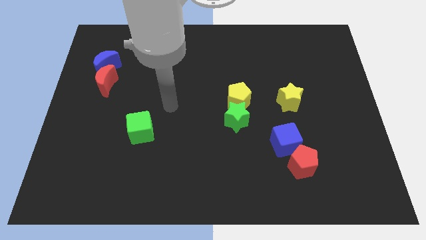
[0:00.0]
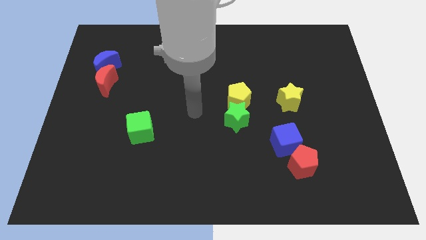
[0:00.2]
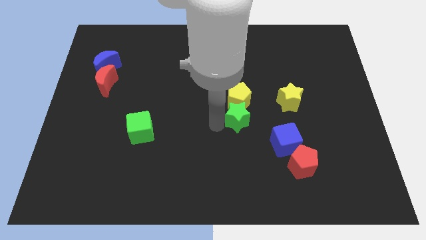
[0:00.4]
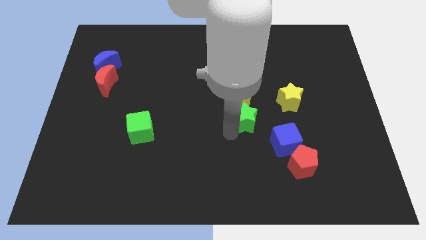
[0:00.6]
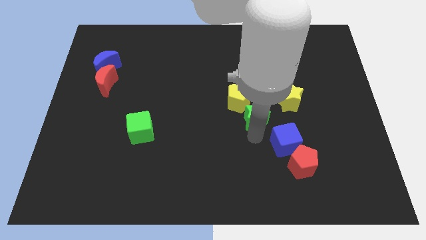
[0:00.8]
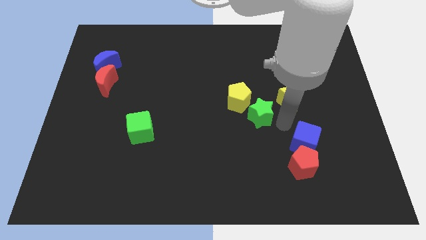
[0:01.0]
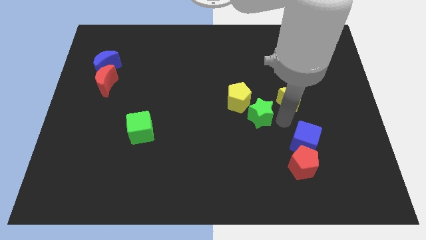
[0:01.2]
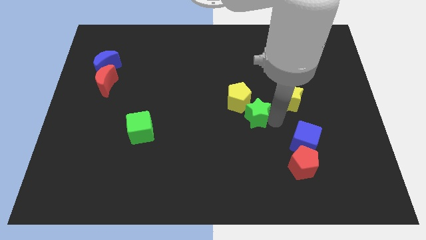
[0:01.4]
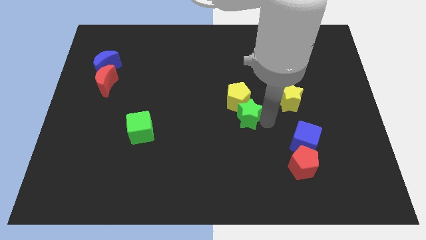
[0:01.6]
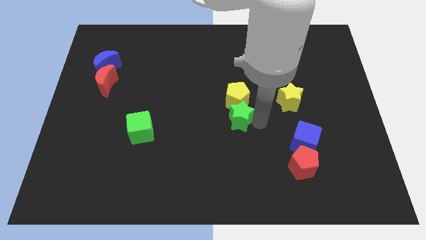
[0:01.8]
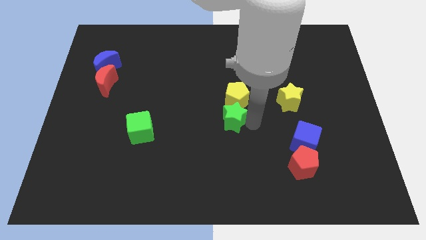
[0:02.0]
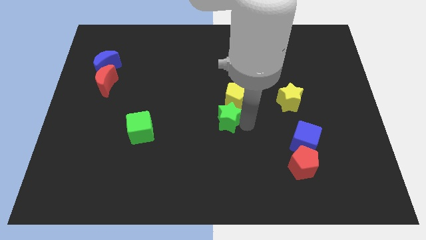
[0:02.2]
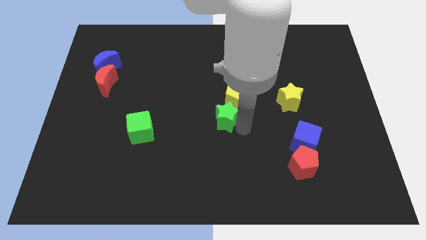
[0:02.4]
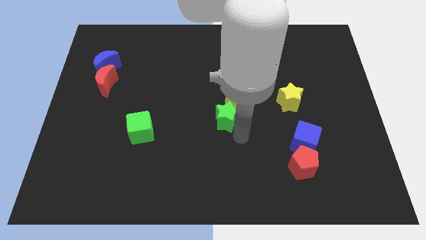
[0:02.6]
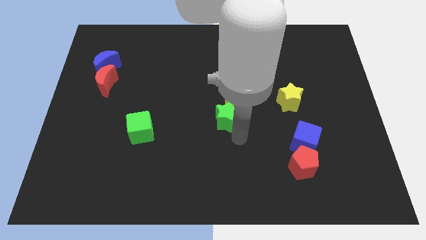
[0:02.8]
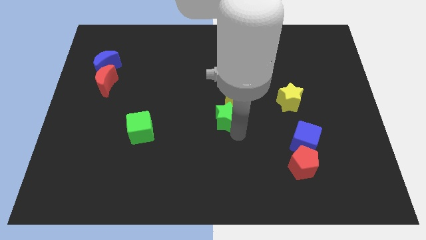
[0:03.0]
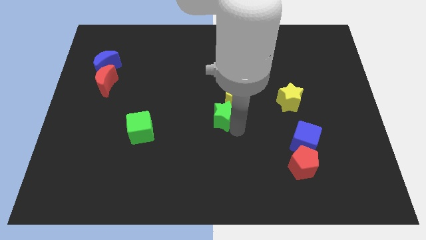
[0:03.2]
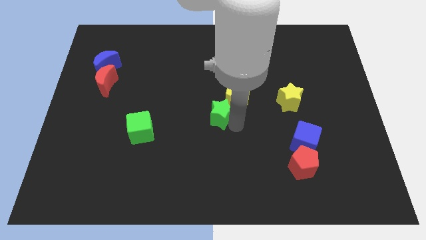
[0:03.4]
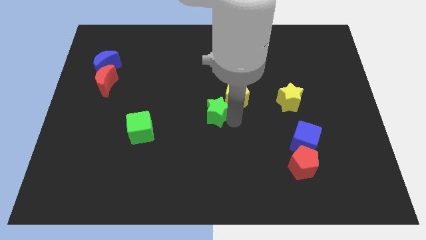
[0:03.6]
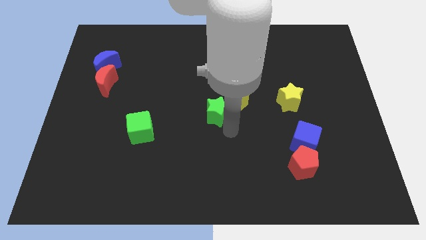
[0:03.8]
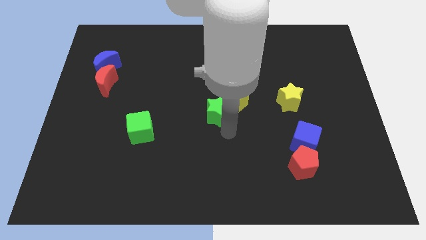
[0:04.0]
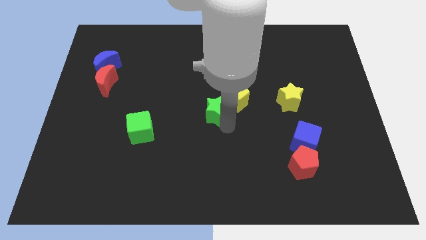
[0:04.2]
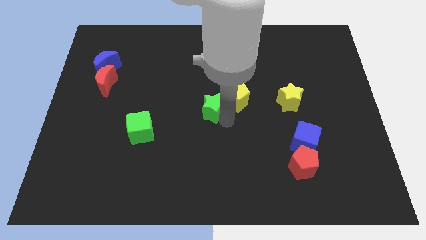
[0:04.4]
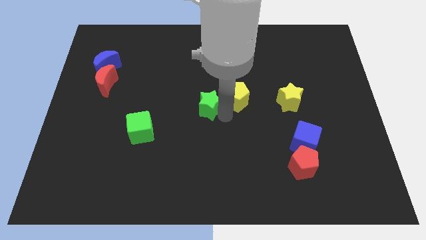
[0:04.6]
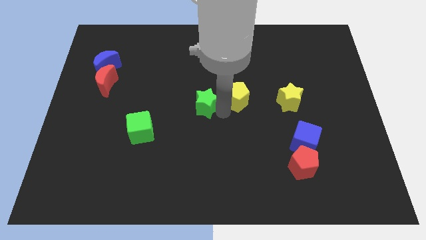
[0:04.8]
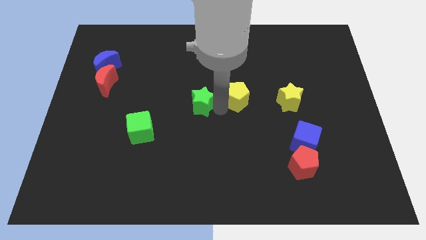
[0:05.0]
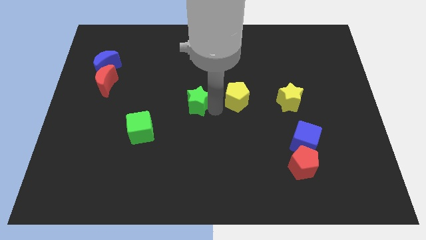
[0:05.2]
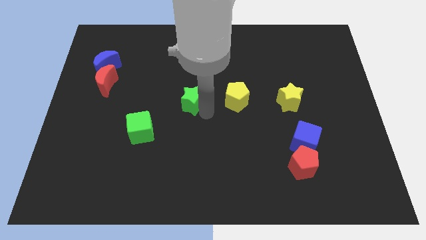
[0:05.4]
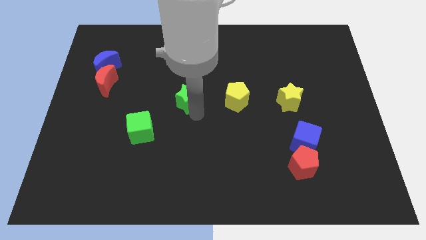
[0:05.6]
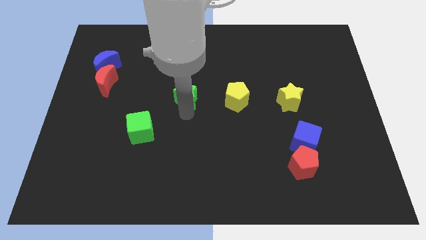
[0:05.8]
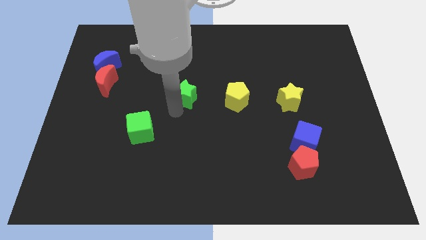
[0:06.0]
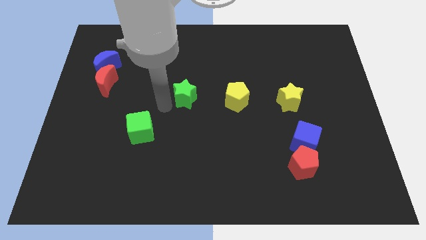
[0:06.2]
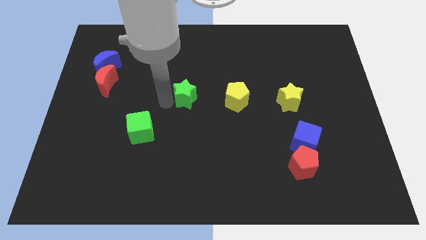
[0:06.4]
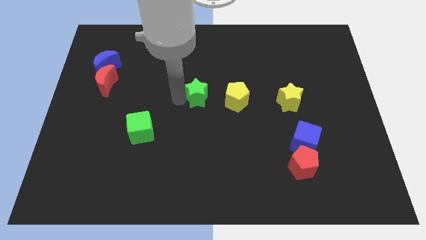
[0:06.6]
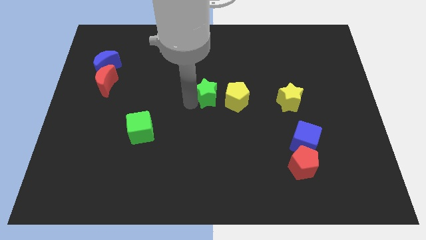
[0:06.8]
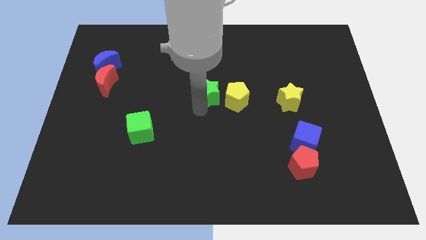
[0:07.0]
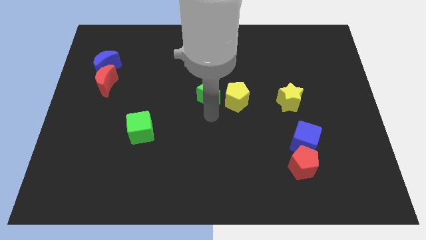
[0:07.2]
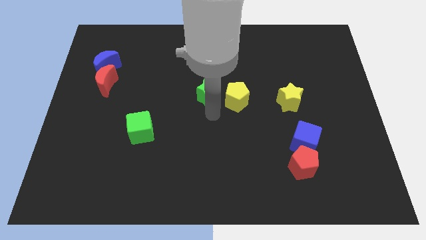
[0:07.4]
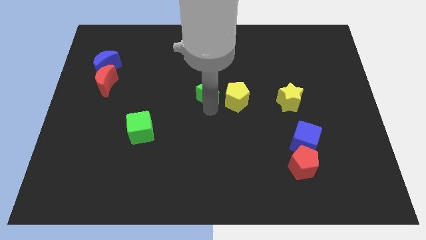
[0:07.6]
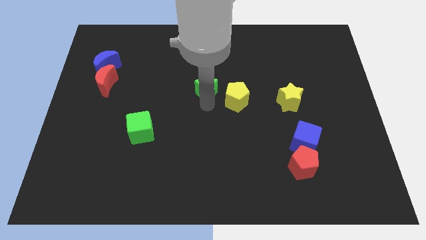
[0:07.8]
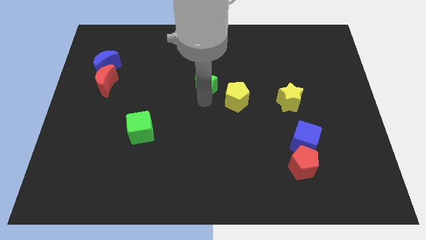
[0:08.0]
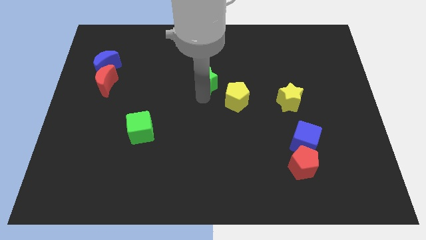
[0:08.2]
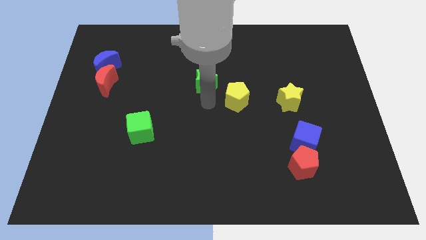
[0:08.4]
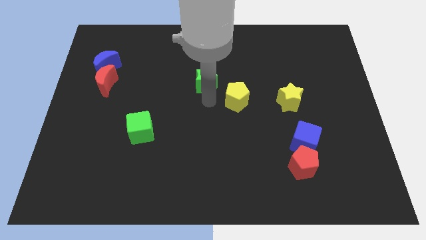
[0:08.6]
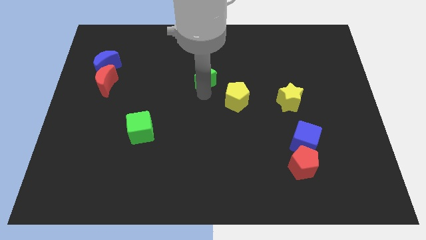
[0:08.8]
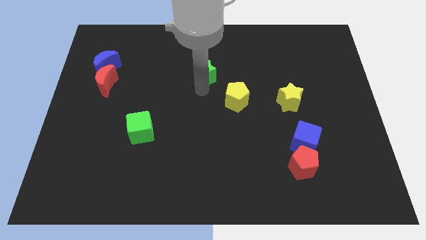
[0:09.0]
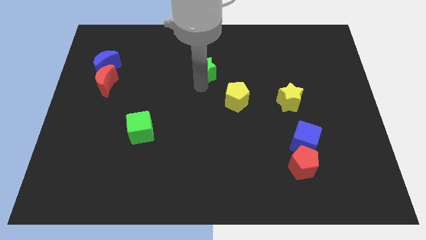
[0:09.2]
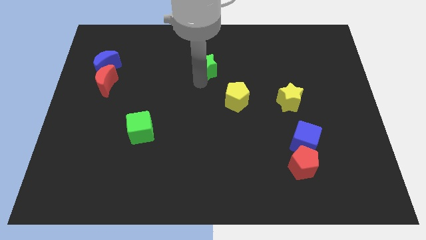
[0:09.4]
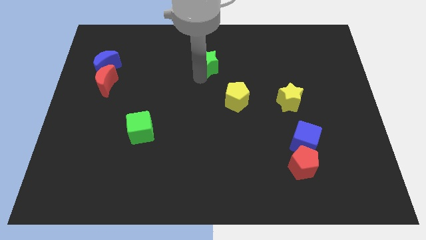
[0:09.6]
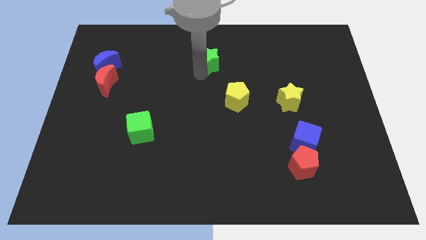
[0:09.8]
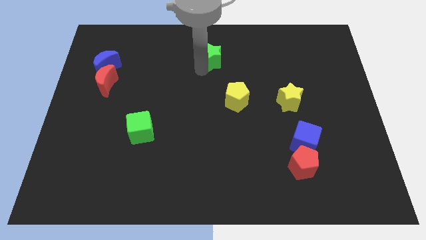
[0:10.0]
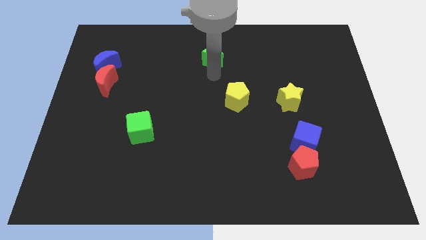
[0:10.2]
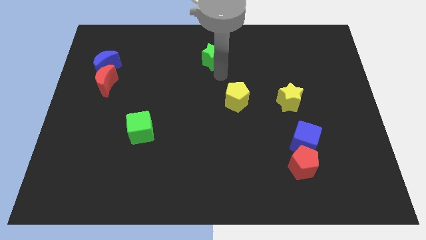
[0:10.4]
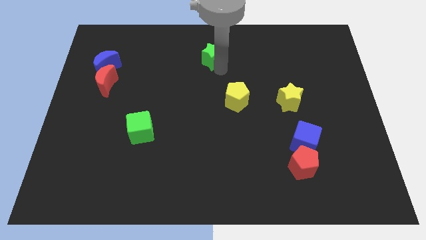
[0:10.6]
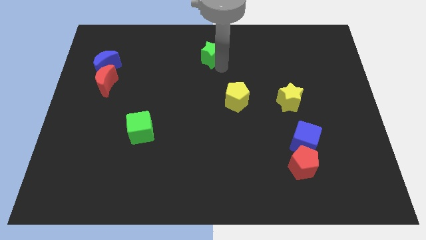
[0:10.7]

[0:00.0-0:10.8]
slide the green star to the top side

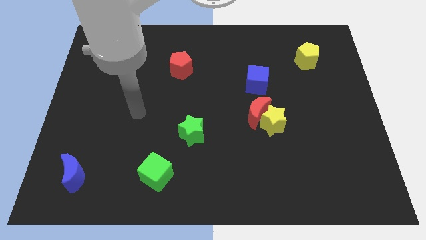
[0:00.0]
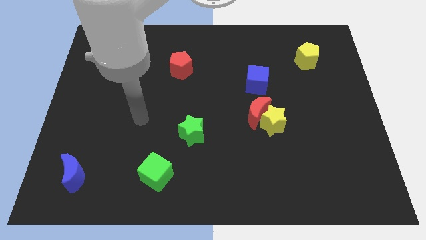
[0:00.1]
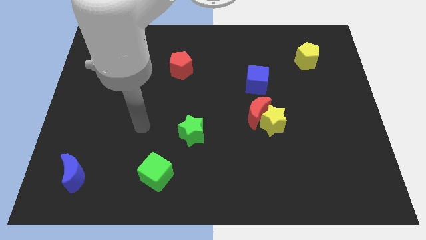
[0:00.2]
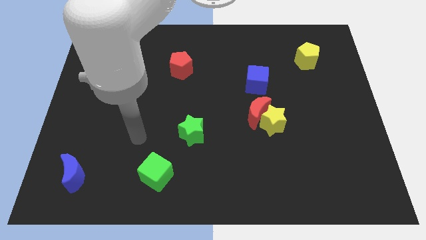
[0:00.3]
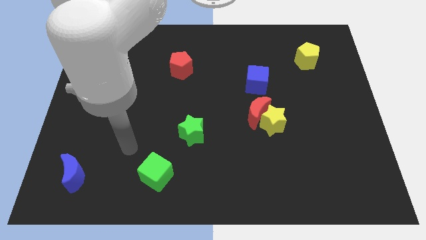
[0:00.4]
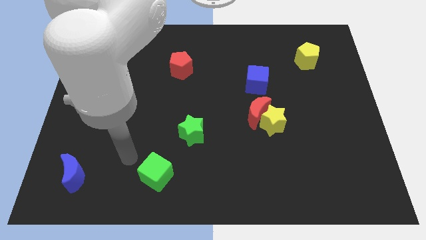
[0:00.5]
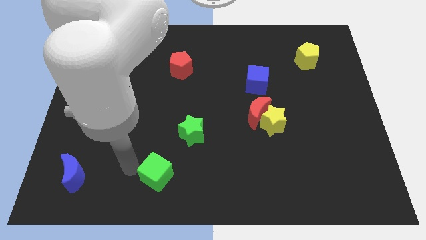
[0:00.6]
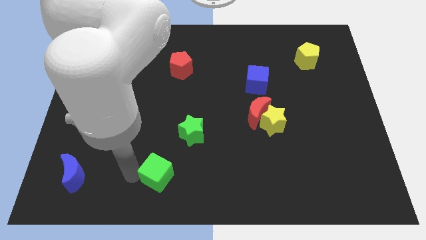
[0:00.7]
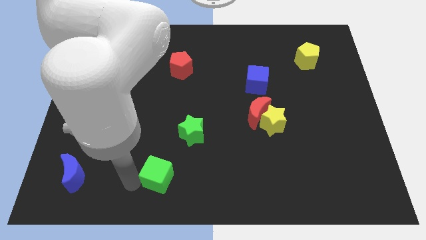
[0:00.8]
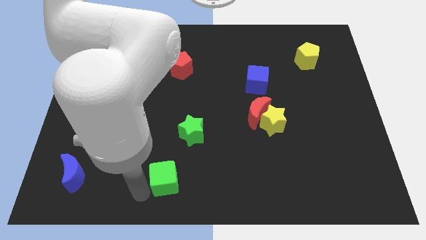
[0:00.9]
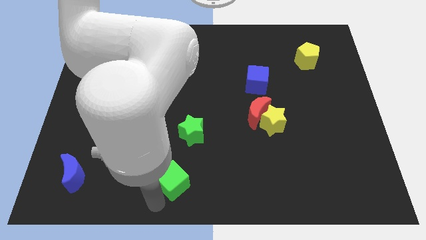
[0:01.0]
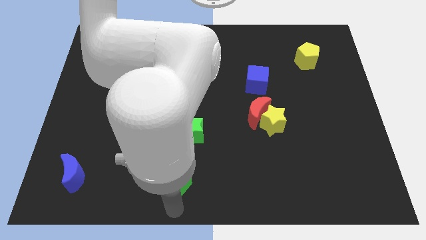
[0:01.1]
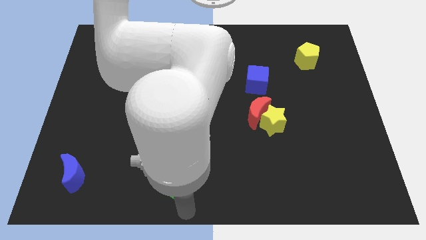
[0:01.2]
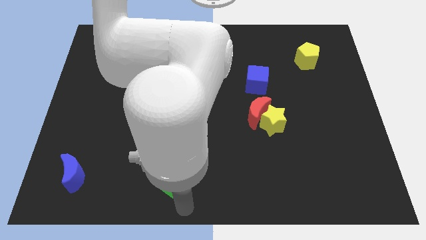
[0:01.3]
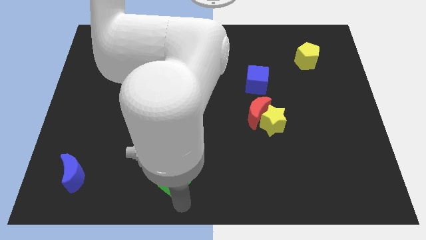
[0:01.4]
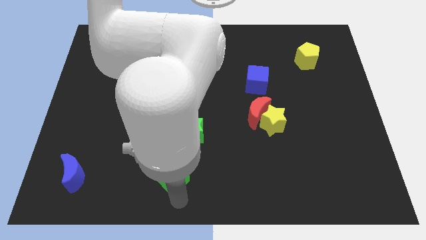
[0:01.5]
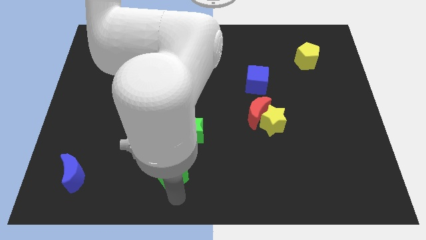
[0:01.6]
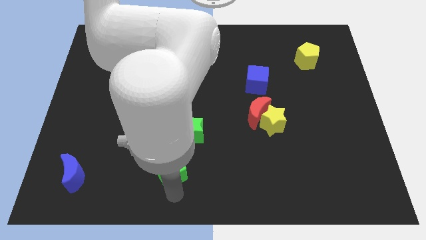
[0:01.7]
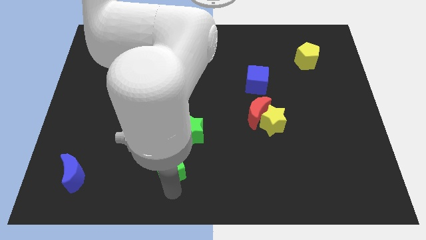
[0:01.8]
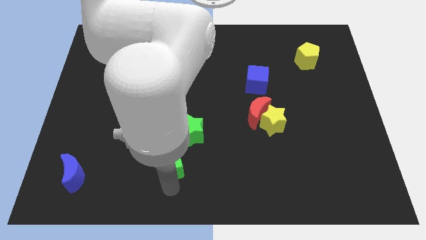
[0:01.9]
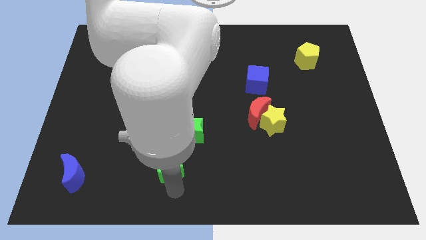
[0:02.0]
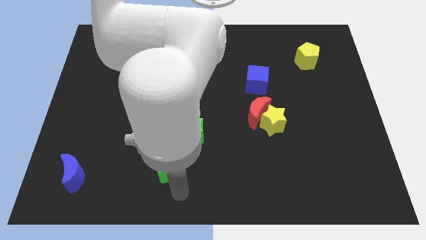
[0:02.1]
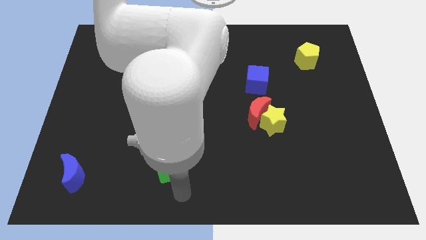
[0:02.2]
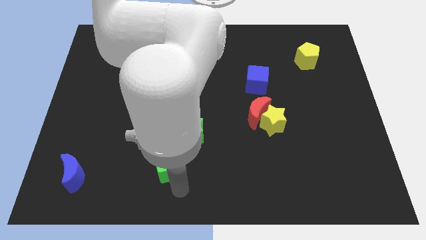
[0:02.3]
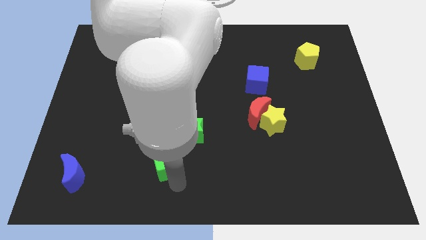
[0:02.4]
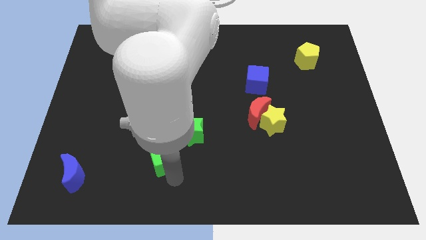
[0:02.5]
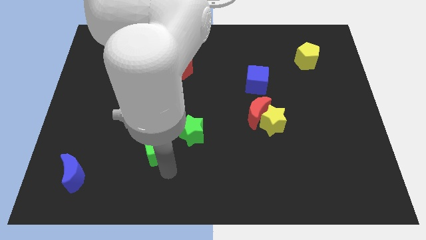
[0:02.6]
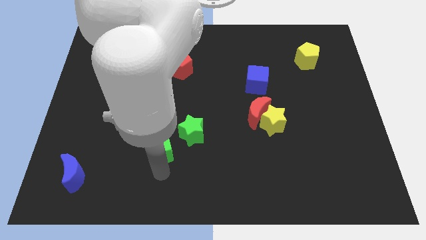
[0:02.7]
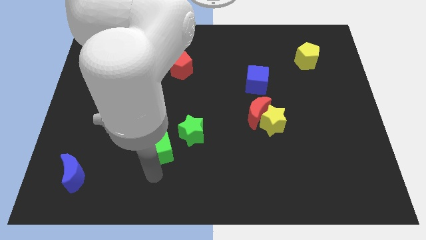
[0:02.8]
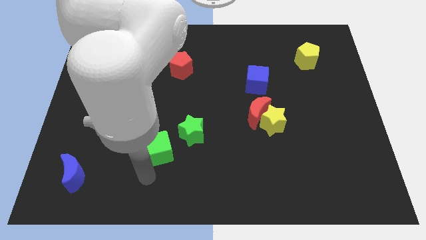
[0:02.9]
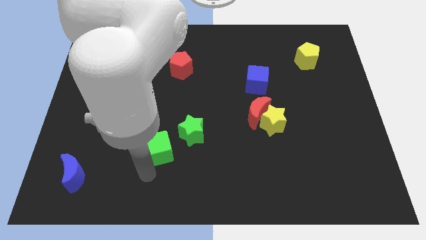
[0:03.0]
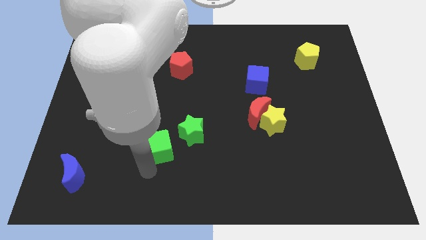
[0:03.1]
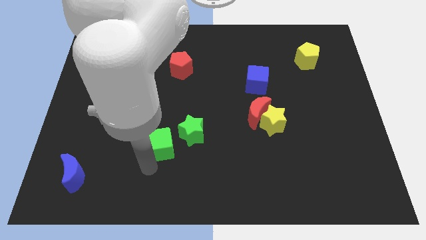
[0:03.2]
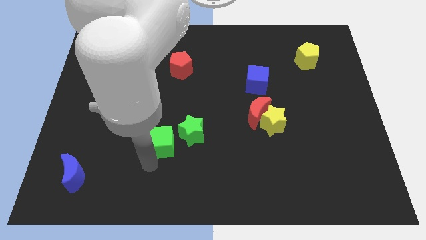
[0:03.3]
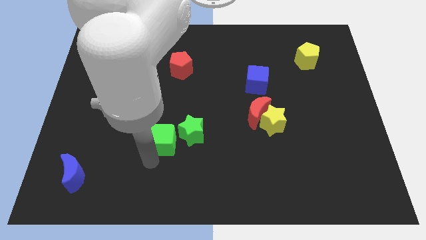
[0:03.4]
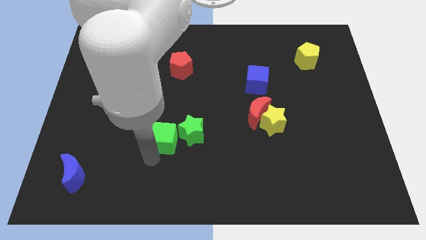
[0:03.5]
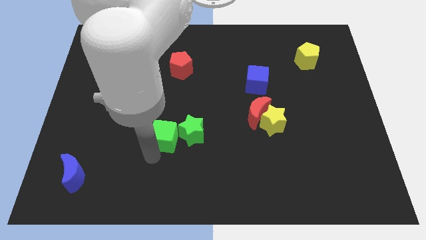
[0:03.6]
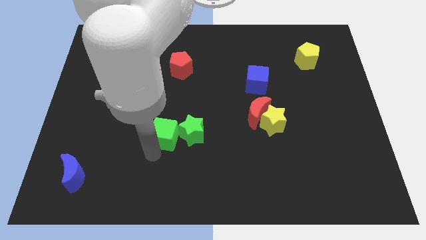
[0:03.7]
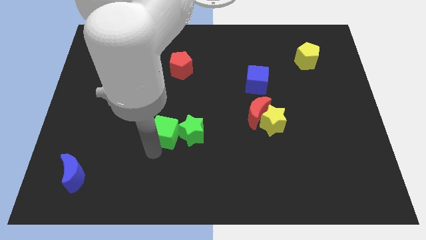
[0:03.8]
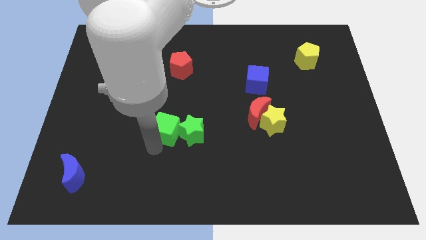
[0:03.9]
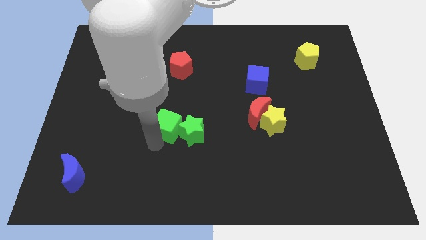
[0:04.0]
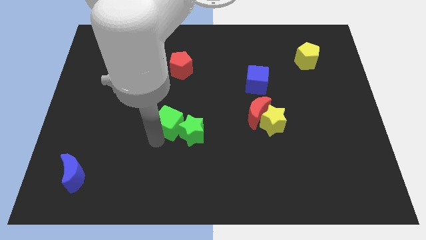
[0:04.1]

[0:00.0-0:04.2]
push the green cube to the center
